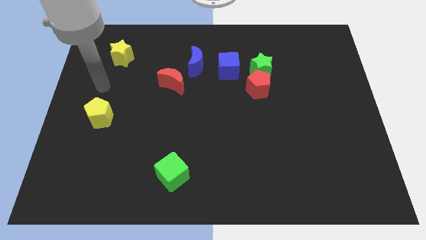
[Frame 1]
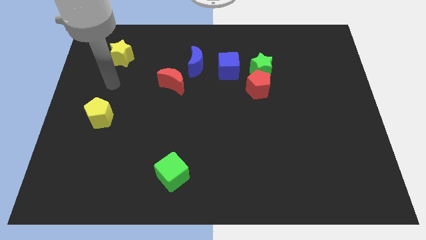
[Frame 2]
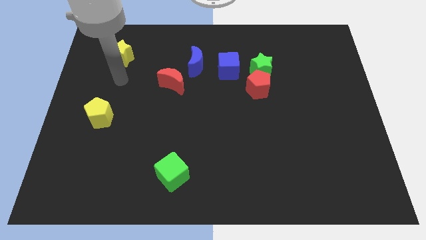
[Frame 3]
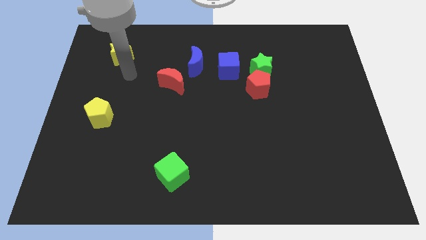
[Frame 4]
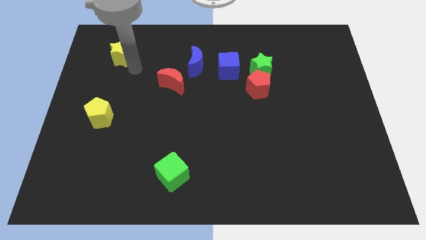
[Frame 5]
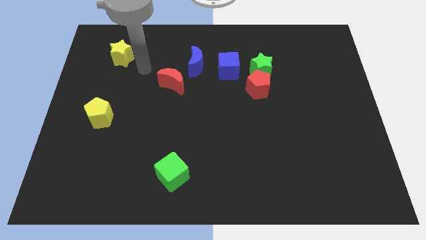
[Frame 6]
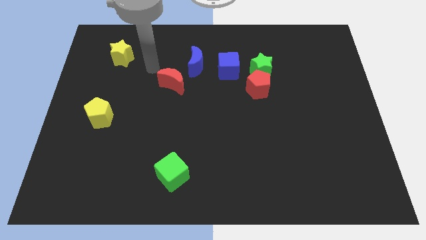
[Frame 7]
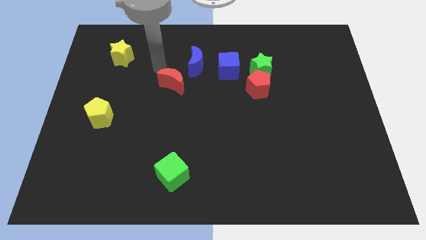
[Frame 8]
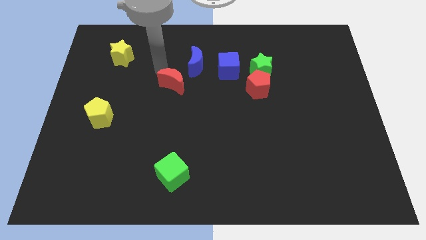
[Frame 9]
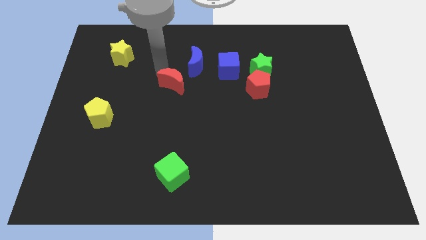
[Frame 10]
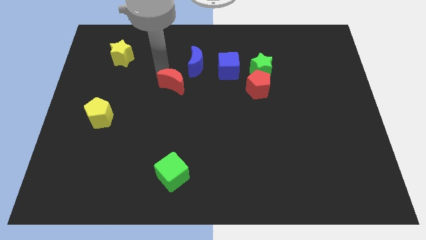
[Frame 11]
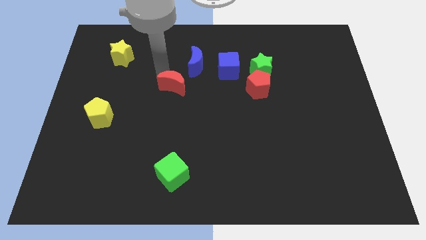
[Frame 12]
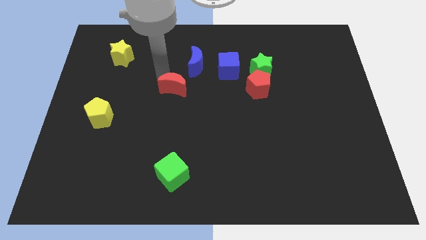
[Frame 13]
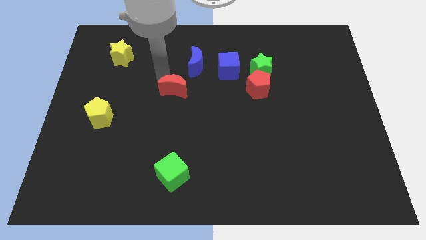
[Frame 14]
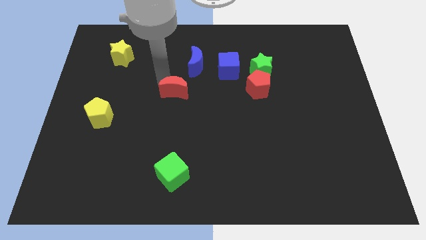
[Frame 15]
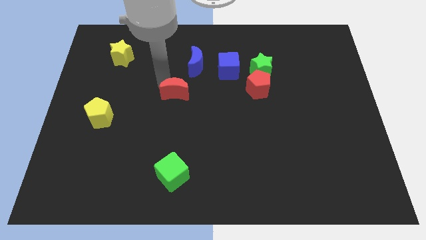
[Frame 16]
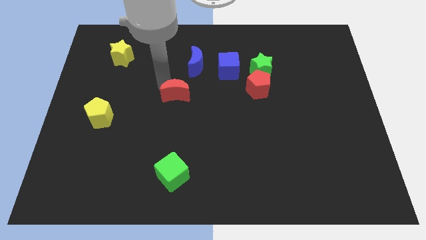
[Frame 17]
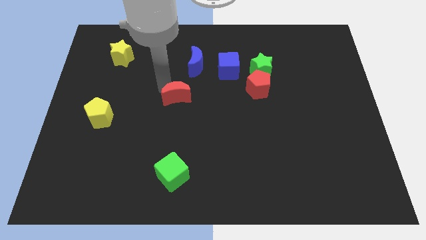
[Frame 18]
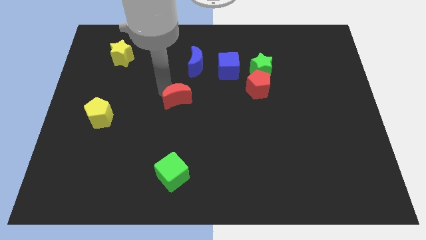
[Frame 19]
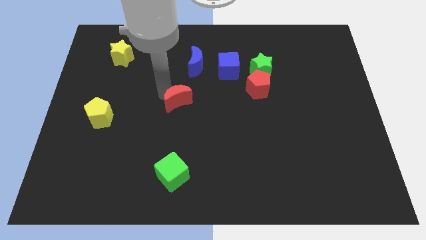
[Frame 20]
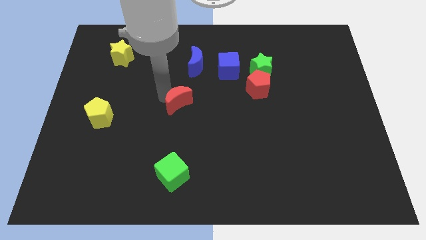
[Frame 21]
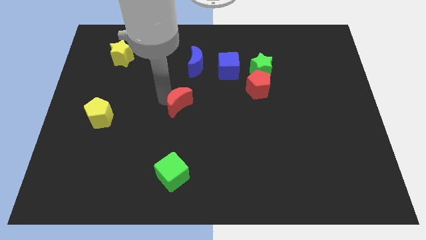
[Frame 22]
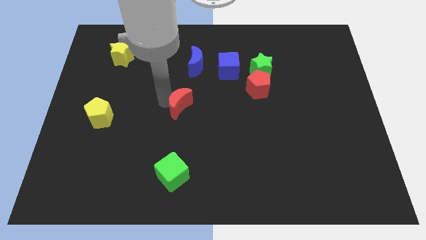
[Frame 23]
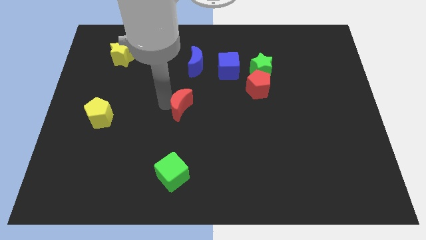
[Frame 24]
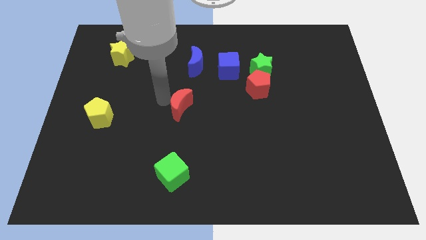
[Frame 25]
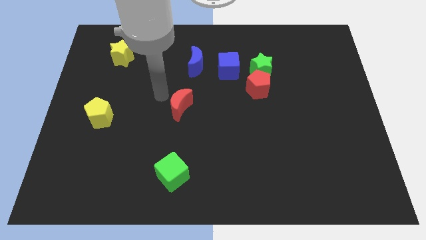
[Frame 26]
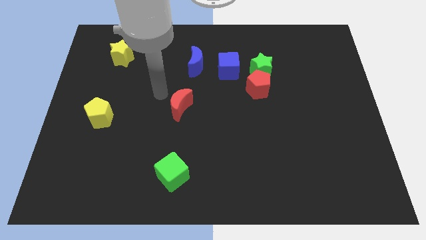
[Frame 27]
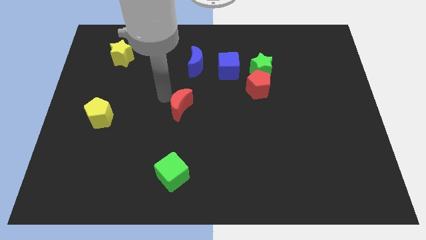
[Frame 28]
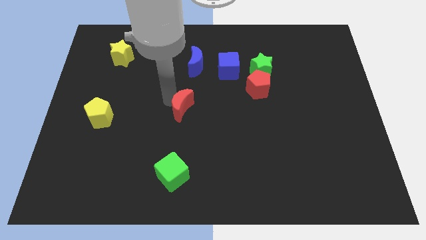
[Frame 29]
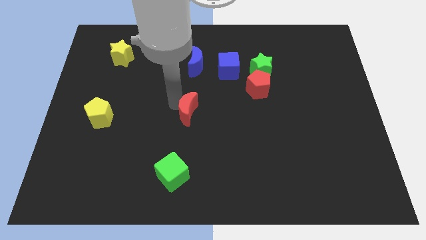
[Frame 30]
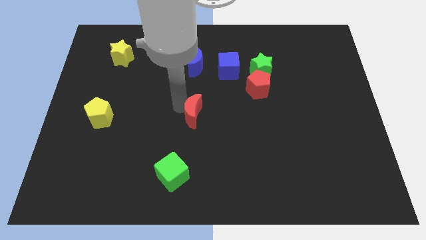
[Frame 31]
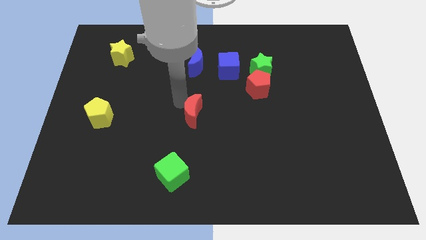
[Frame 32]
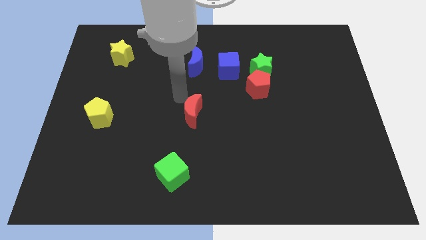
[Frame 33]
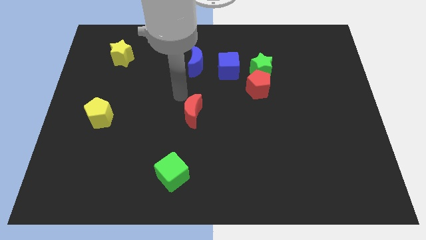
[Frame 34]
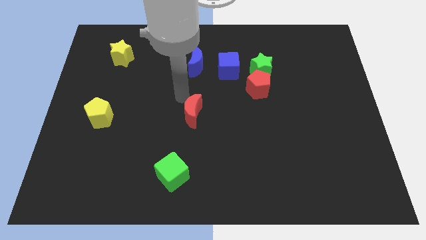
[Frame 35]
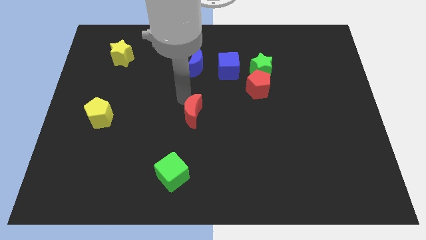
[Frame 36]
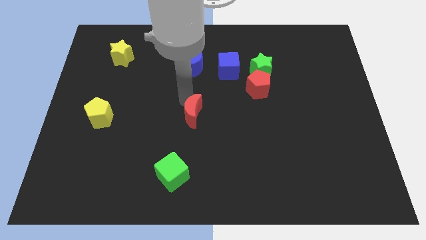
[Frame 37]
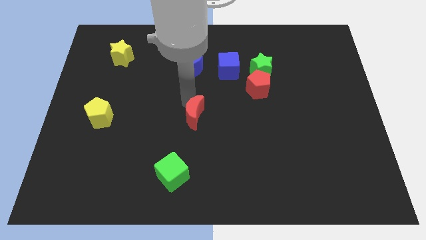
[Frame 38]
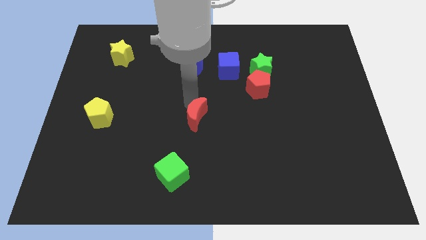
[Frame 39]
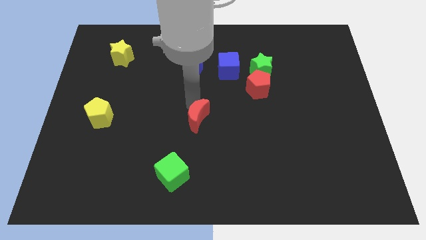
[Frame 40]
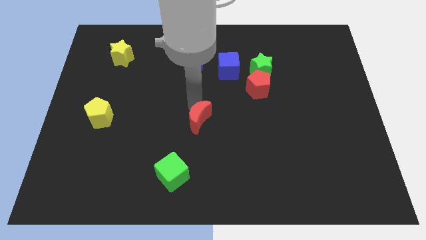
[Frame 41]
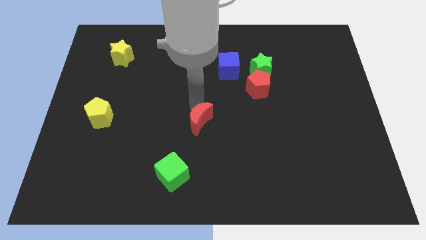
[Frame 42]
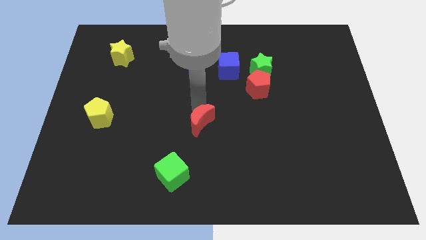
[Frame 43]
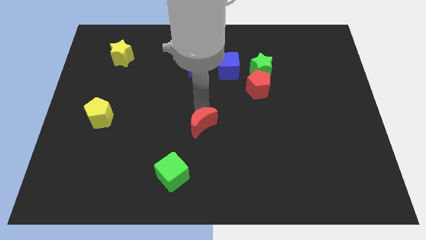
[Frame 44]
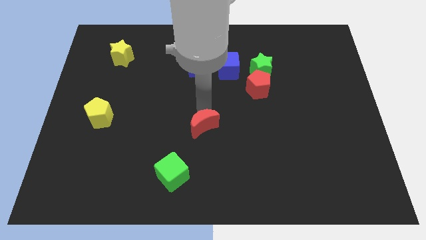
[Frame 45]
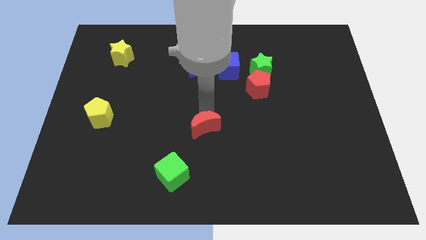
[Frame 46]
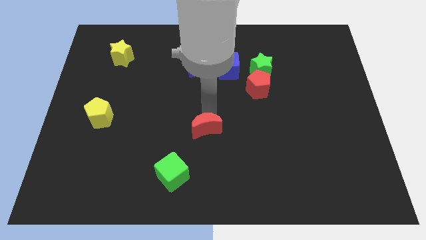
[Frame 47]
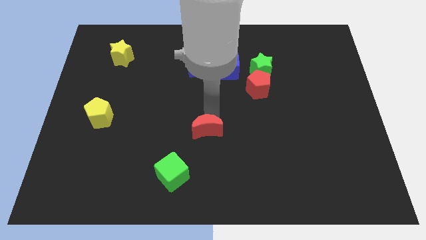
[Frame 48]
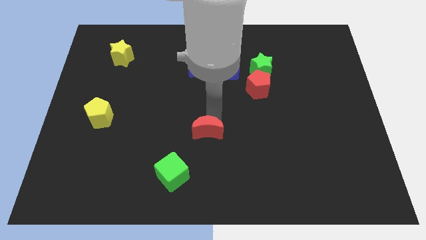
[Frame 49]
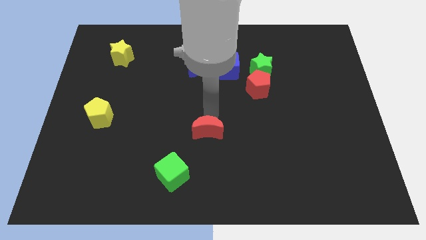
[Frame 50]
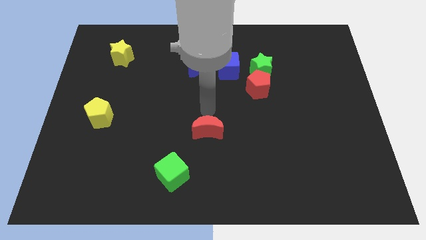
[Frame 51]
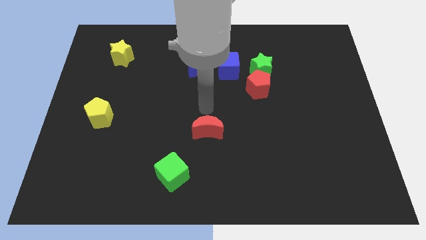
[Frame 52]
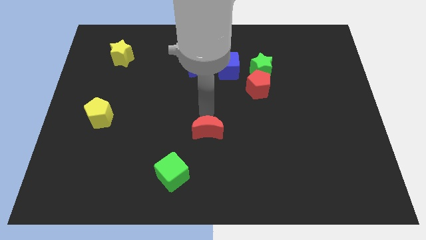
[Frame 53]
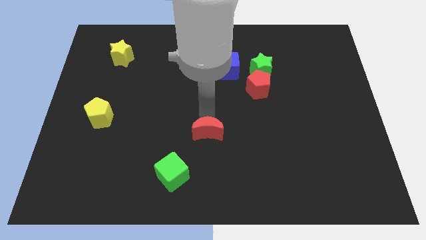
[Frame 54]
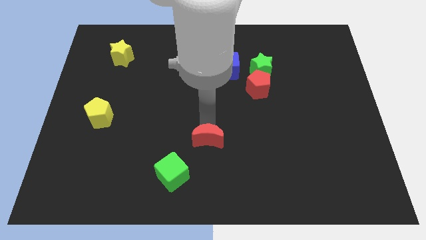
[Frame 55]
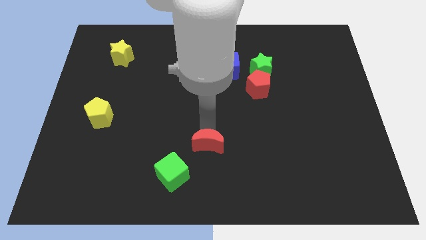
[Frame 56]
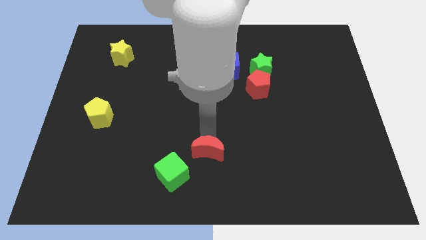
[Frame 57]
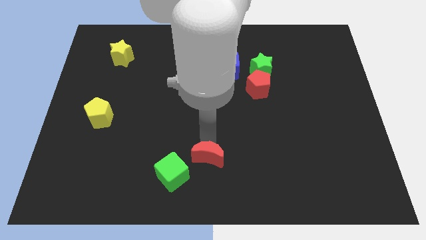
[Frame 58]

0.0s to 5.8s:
slide the red moon to the bottom

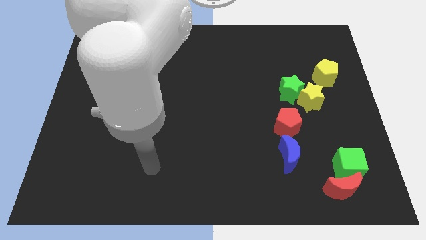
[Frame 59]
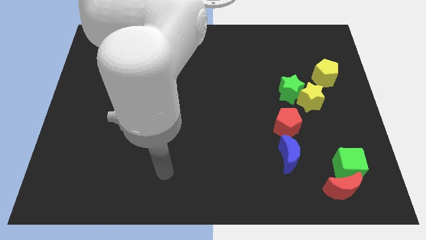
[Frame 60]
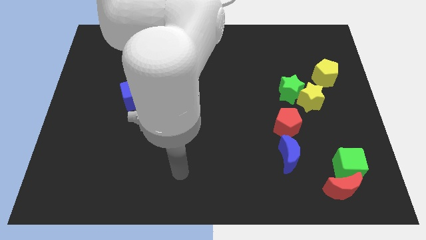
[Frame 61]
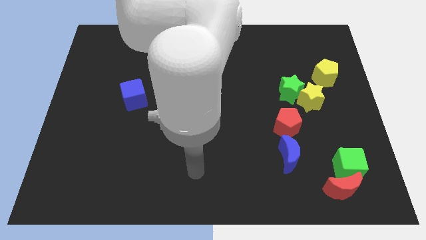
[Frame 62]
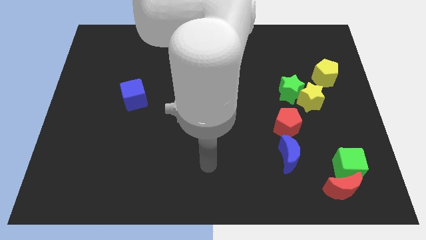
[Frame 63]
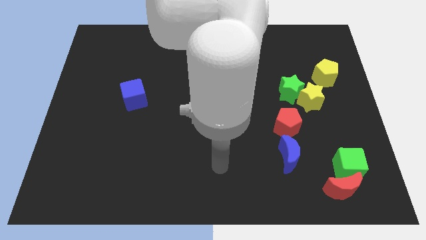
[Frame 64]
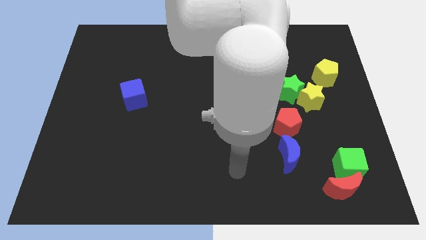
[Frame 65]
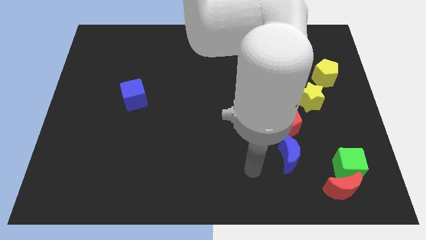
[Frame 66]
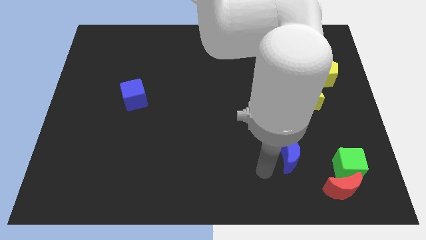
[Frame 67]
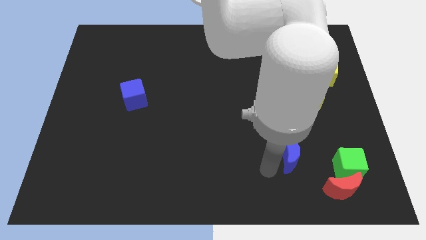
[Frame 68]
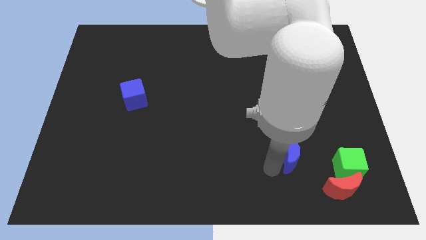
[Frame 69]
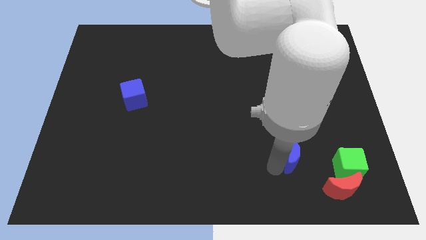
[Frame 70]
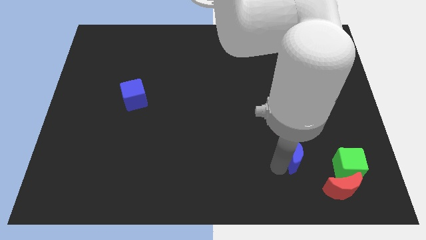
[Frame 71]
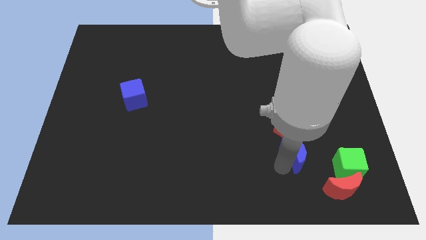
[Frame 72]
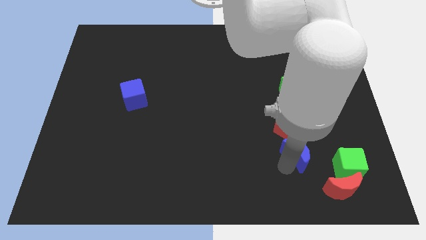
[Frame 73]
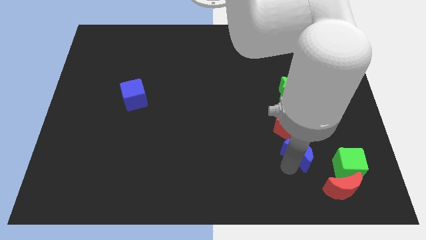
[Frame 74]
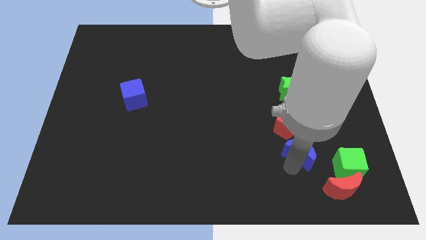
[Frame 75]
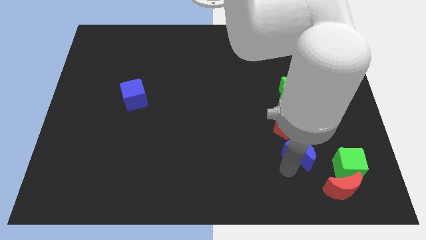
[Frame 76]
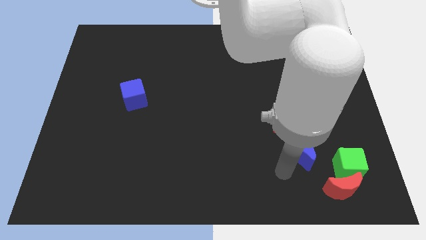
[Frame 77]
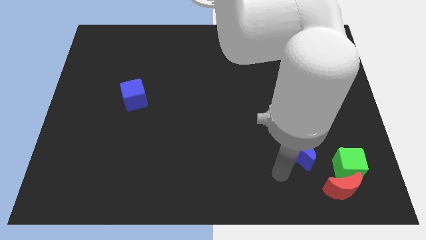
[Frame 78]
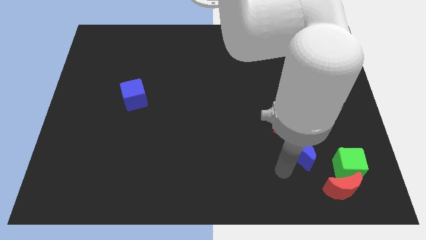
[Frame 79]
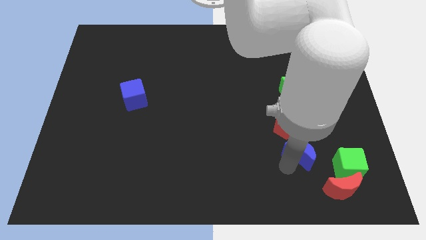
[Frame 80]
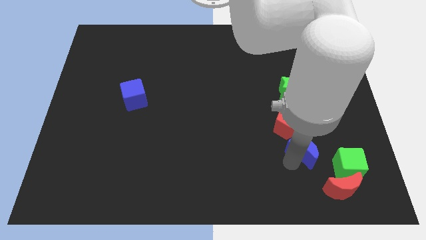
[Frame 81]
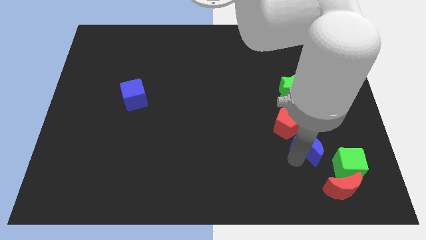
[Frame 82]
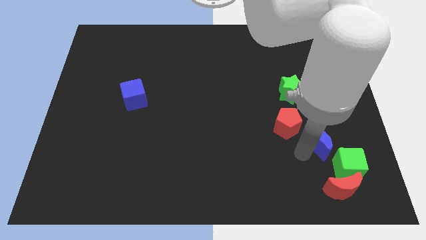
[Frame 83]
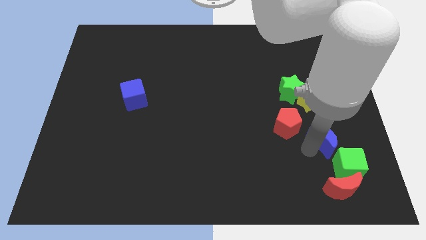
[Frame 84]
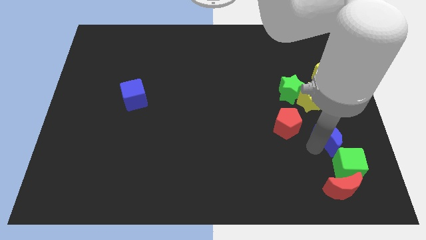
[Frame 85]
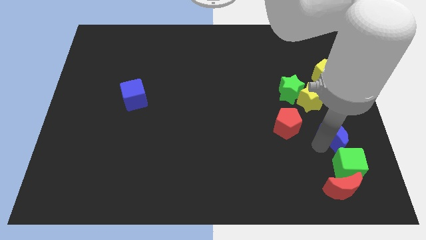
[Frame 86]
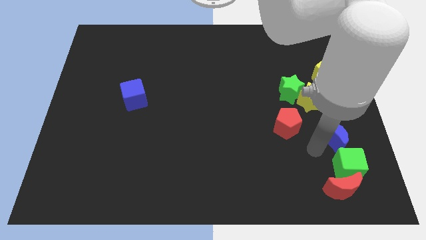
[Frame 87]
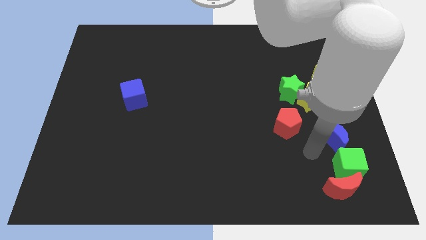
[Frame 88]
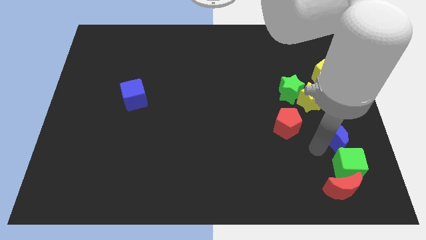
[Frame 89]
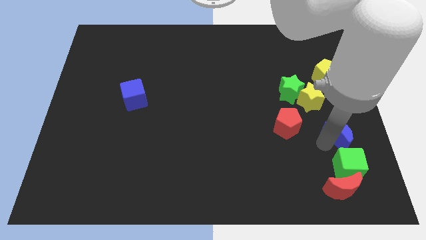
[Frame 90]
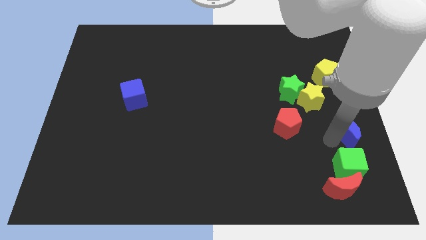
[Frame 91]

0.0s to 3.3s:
put the blue moon to the center right
